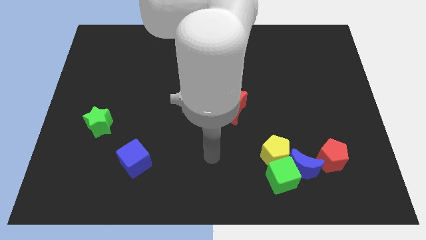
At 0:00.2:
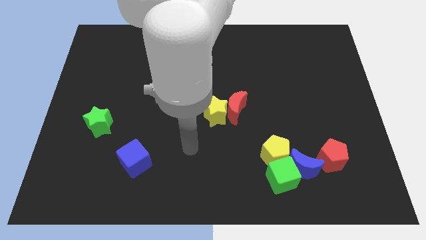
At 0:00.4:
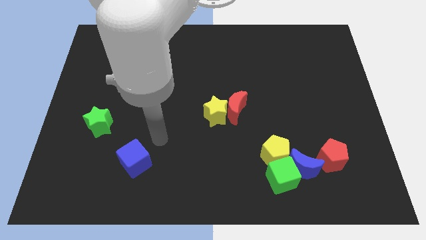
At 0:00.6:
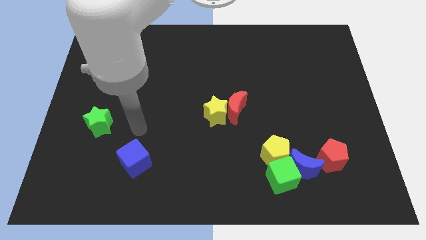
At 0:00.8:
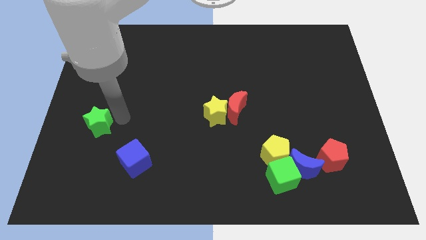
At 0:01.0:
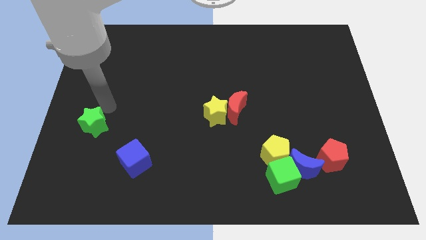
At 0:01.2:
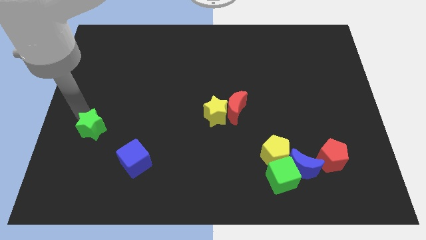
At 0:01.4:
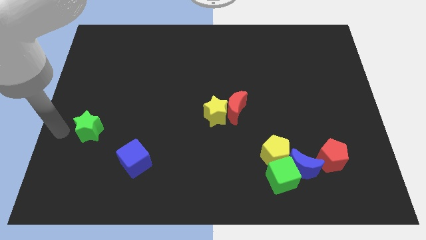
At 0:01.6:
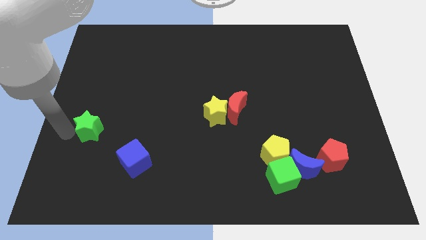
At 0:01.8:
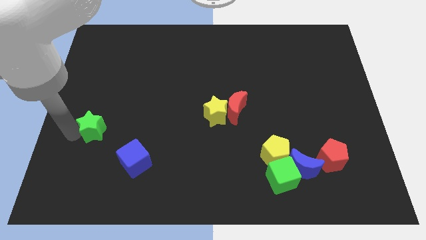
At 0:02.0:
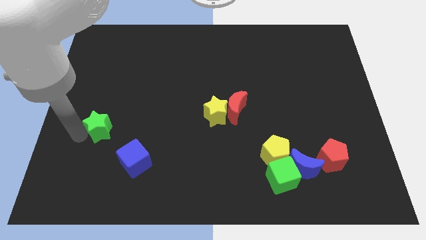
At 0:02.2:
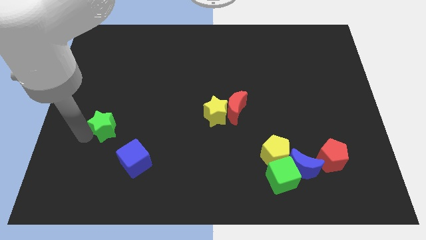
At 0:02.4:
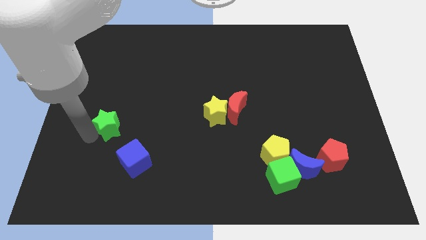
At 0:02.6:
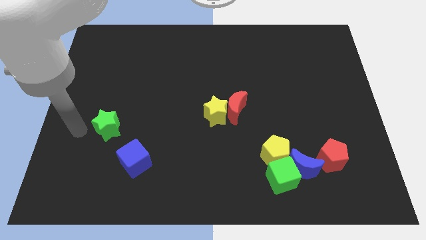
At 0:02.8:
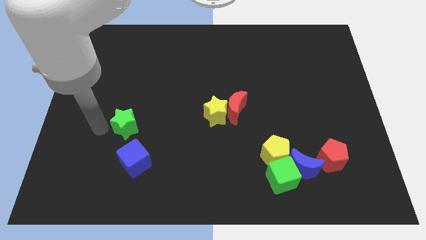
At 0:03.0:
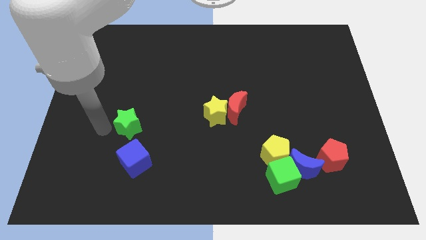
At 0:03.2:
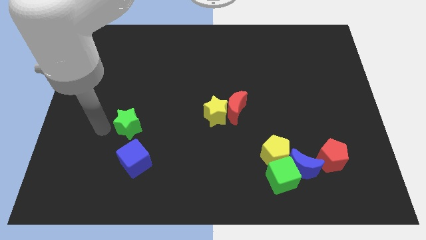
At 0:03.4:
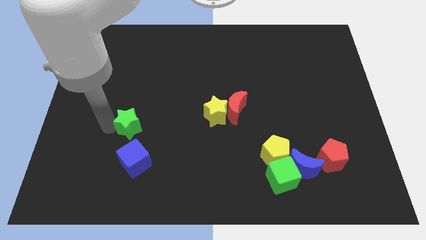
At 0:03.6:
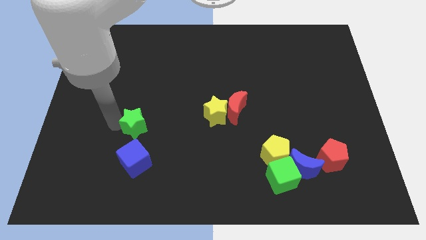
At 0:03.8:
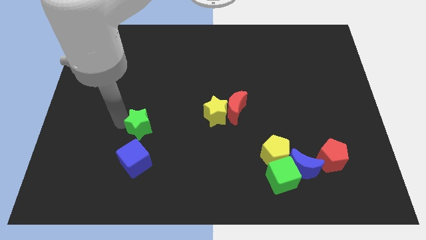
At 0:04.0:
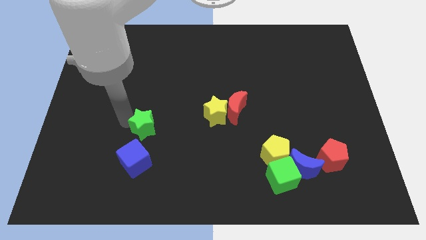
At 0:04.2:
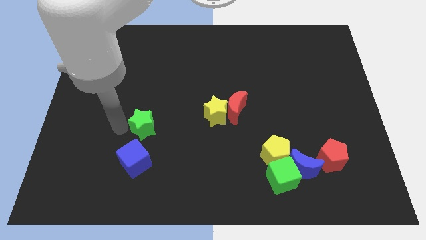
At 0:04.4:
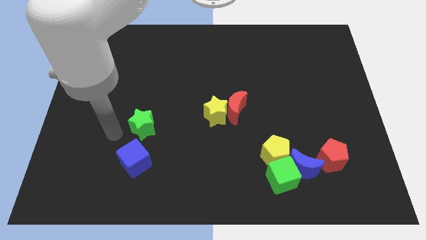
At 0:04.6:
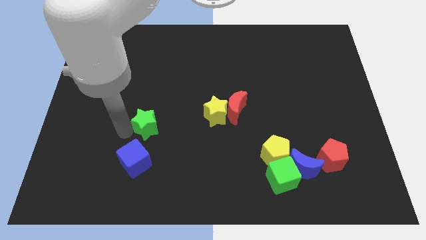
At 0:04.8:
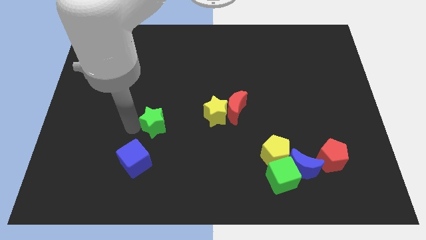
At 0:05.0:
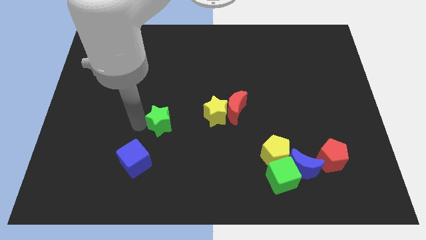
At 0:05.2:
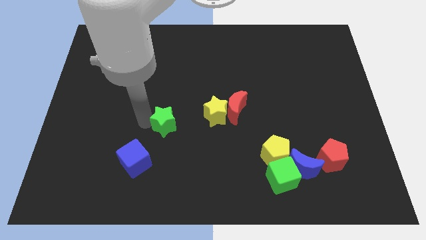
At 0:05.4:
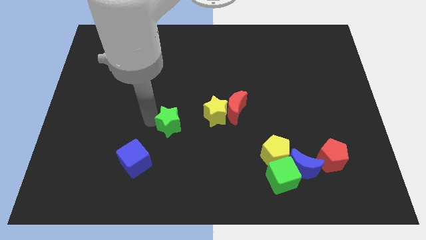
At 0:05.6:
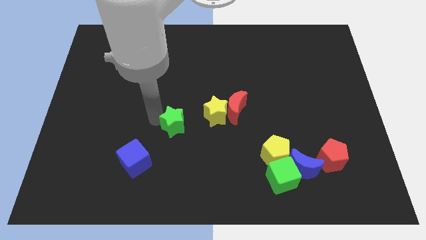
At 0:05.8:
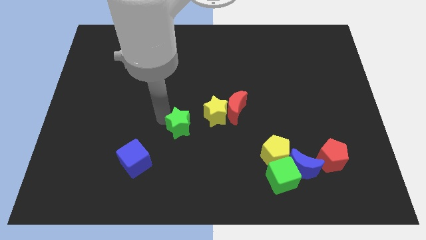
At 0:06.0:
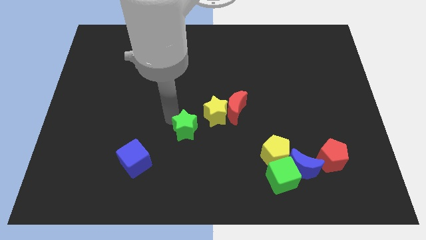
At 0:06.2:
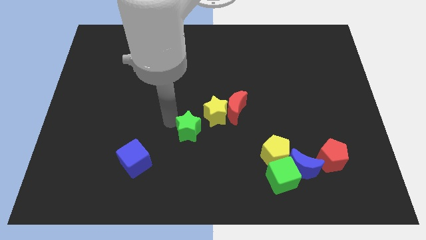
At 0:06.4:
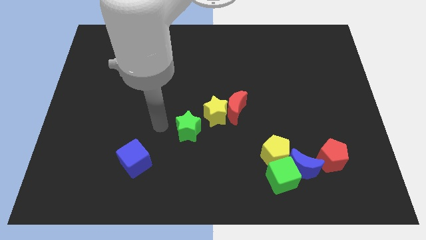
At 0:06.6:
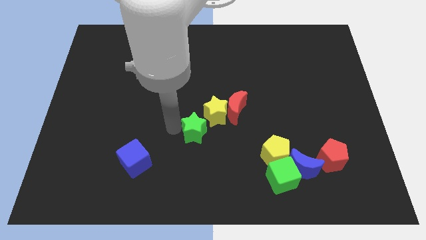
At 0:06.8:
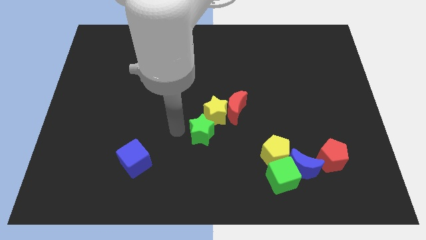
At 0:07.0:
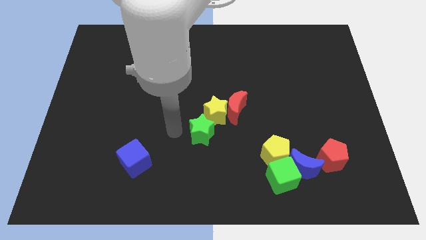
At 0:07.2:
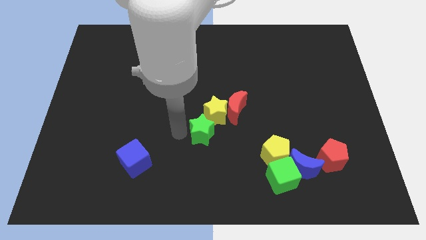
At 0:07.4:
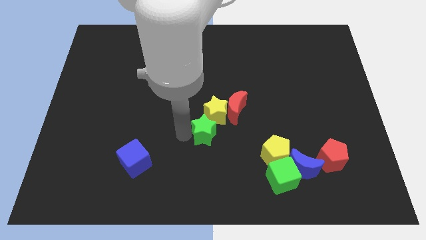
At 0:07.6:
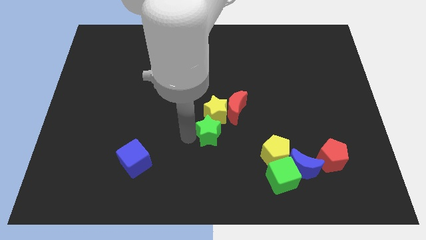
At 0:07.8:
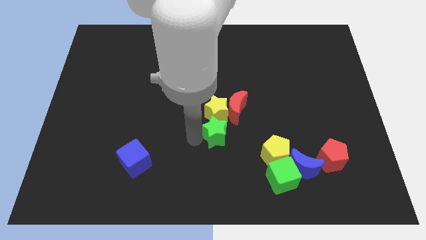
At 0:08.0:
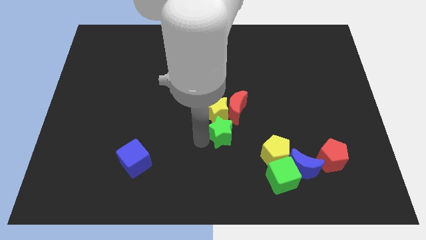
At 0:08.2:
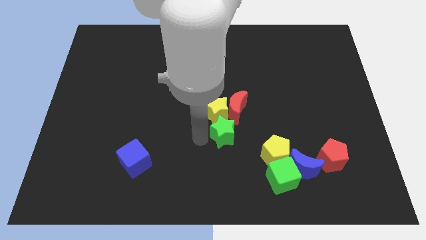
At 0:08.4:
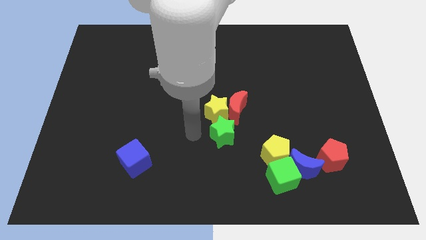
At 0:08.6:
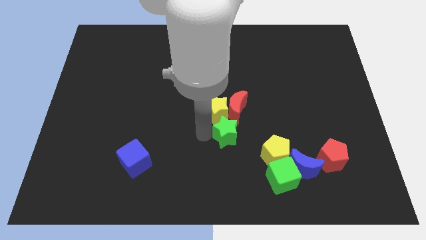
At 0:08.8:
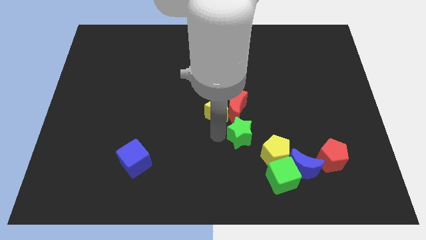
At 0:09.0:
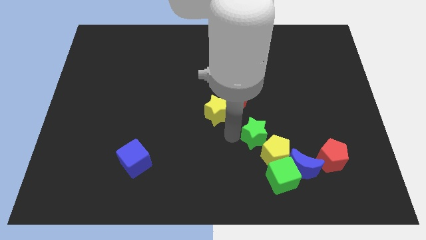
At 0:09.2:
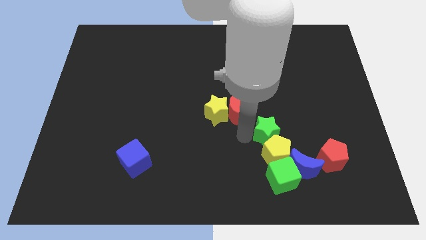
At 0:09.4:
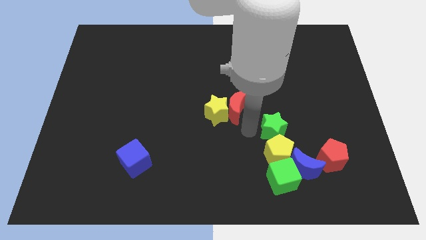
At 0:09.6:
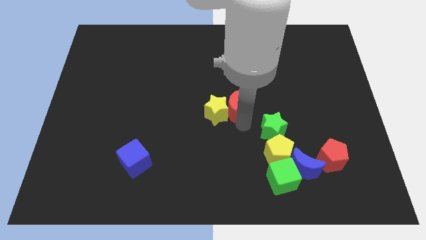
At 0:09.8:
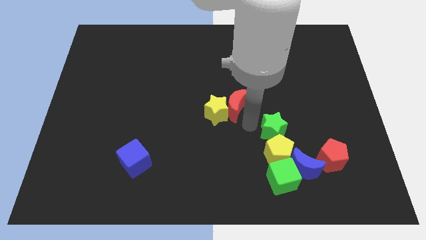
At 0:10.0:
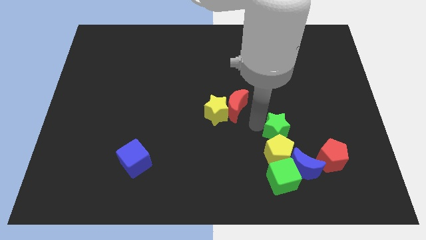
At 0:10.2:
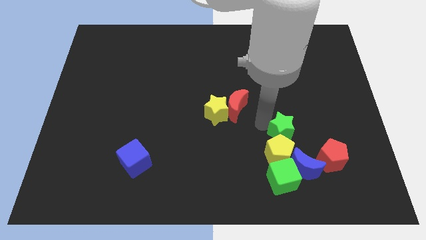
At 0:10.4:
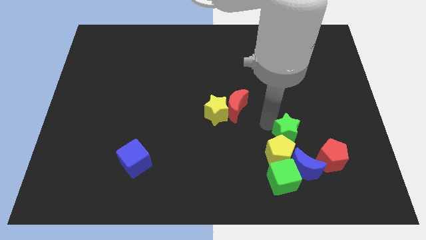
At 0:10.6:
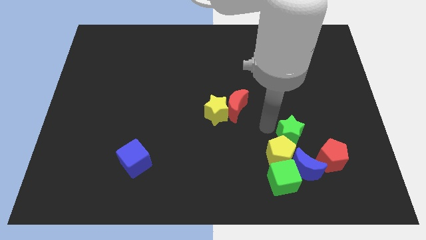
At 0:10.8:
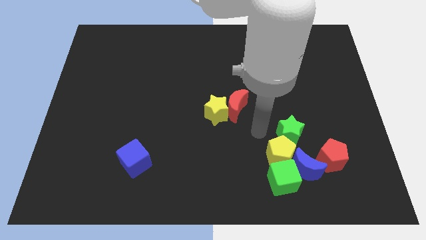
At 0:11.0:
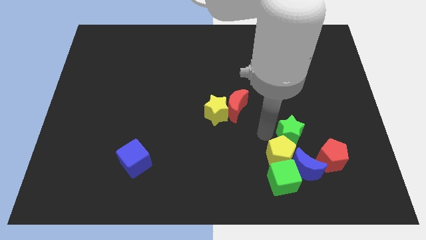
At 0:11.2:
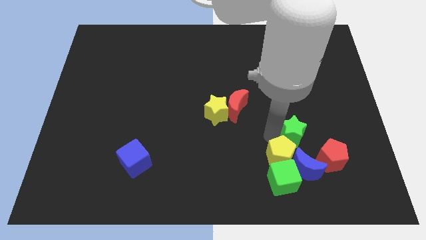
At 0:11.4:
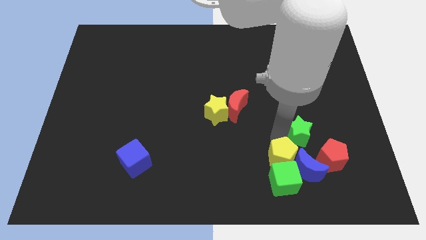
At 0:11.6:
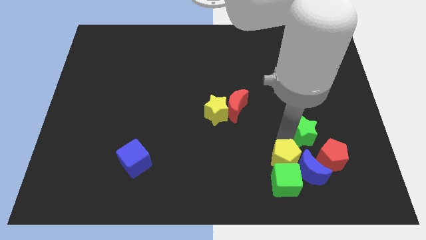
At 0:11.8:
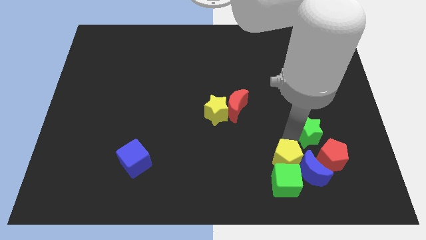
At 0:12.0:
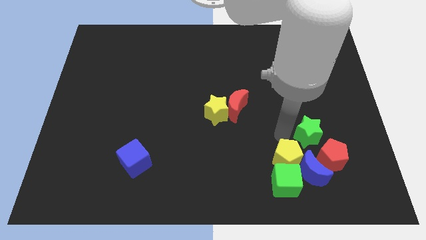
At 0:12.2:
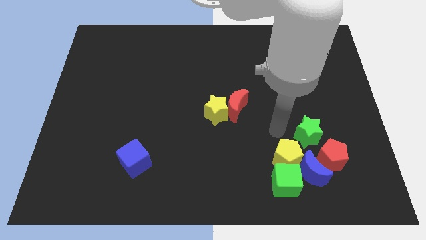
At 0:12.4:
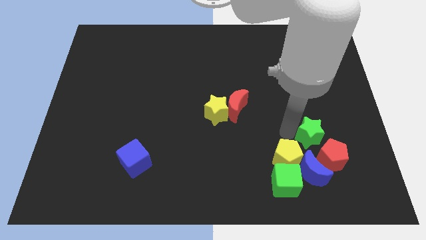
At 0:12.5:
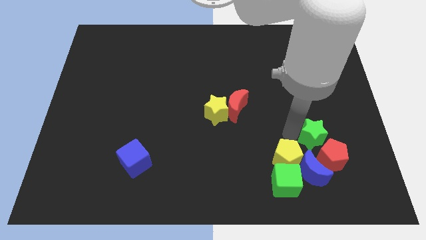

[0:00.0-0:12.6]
slide the green star next to the red pentagon
